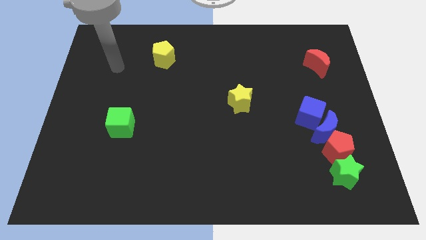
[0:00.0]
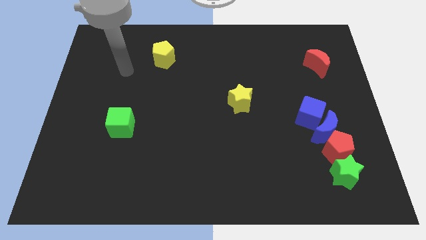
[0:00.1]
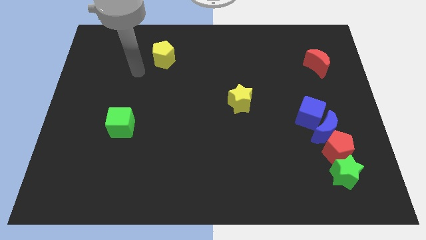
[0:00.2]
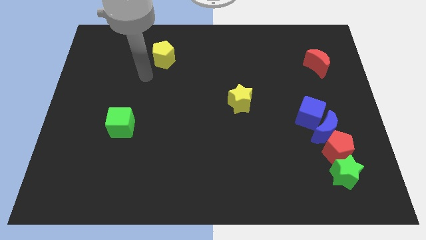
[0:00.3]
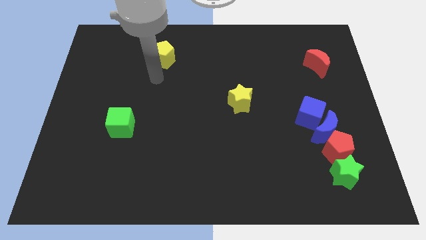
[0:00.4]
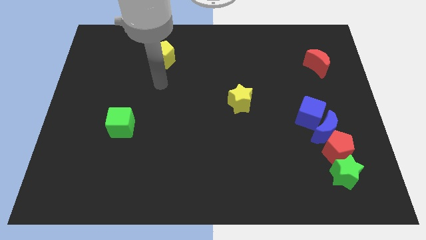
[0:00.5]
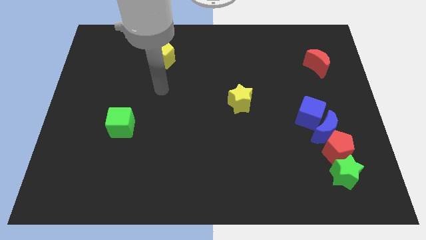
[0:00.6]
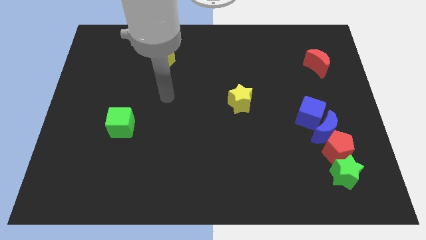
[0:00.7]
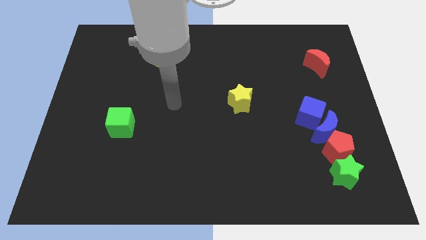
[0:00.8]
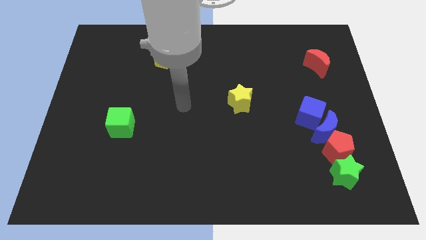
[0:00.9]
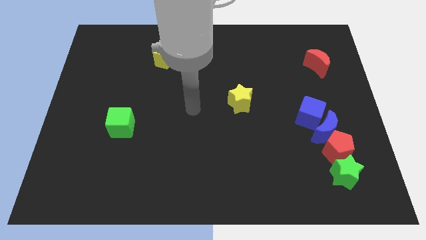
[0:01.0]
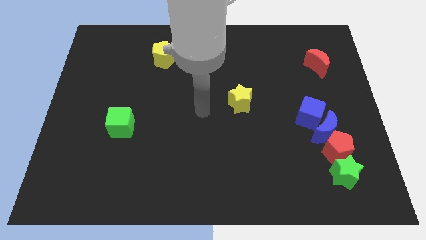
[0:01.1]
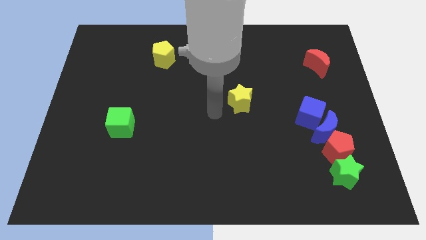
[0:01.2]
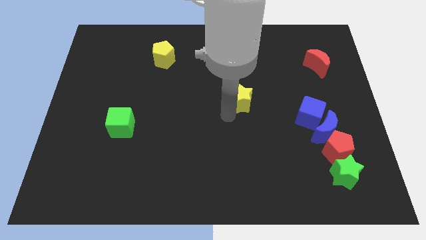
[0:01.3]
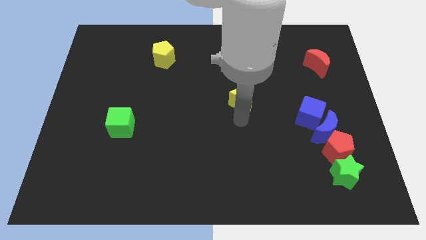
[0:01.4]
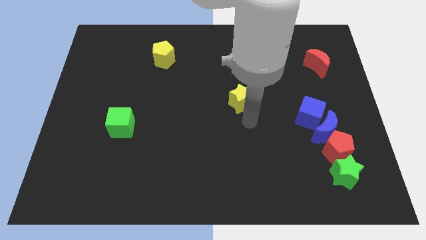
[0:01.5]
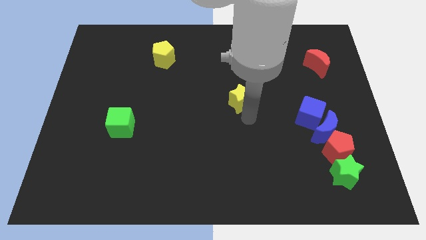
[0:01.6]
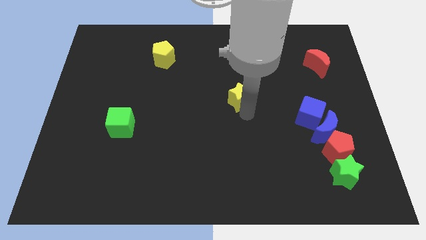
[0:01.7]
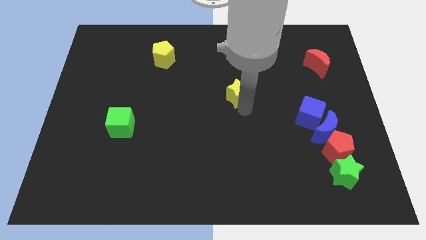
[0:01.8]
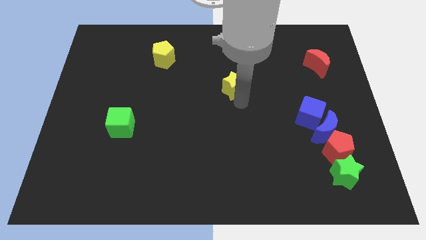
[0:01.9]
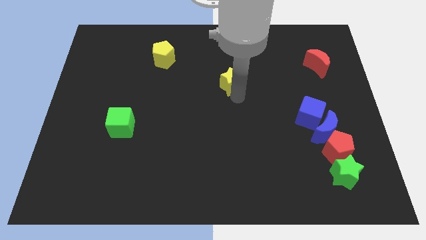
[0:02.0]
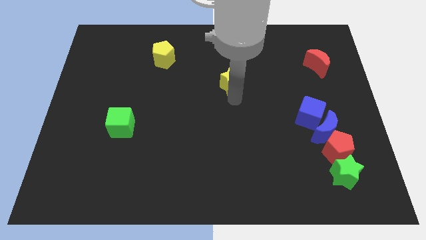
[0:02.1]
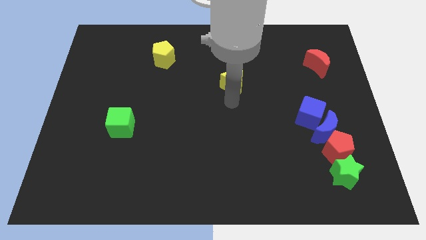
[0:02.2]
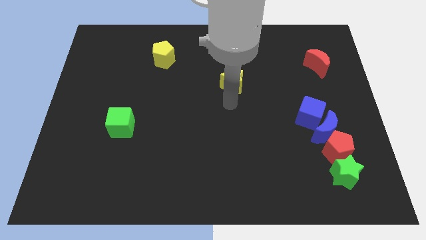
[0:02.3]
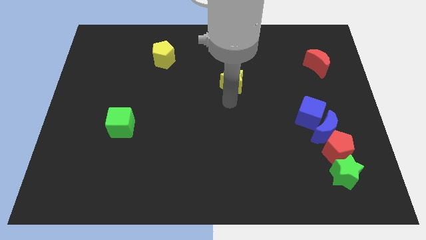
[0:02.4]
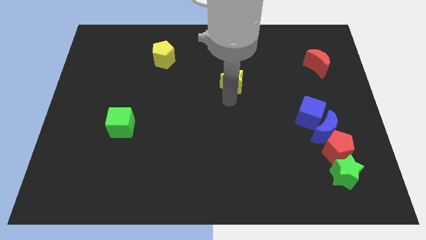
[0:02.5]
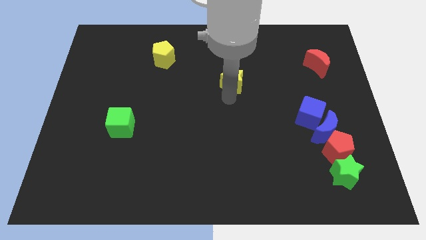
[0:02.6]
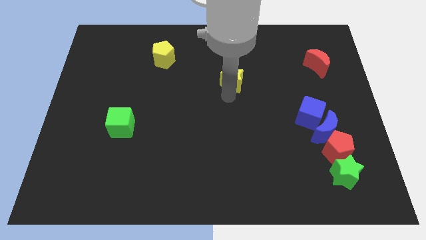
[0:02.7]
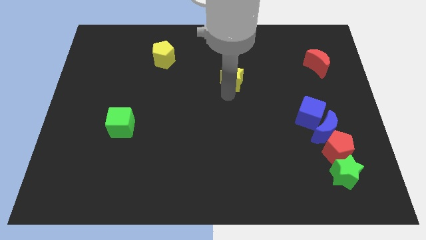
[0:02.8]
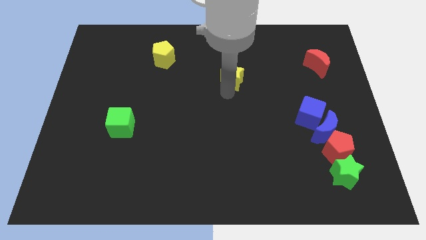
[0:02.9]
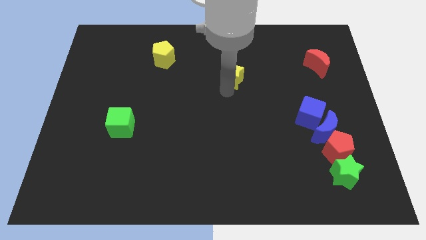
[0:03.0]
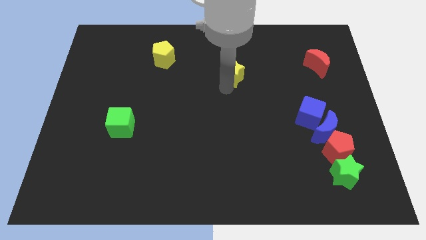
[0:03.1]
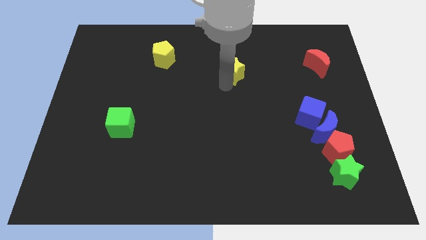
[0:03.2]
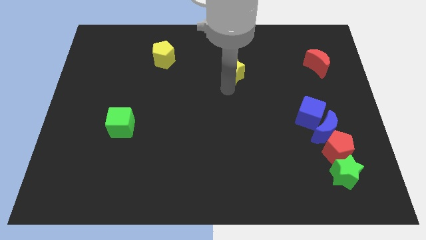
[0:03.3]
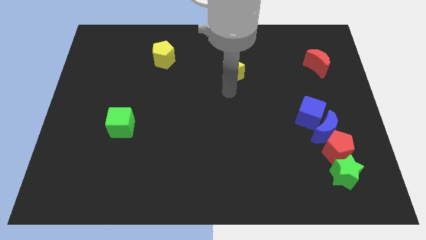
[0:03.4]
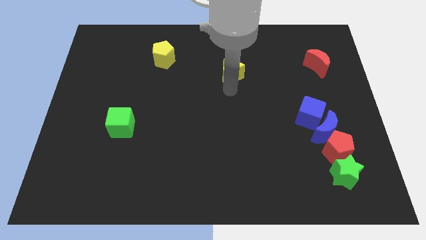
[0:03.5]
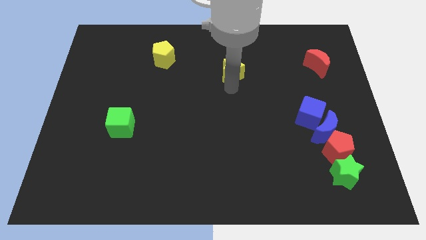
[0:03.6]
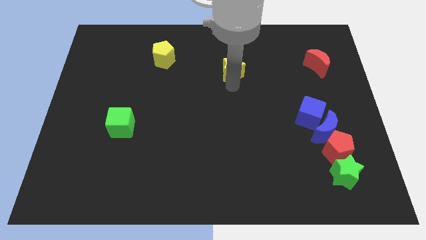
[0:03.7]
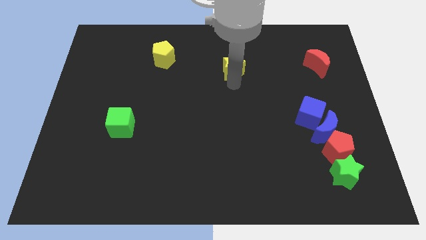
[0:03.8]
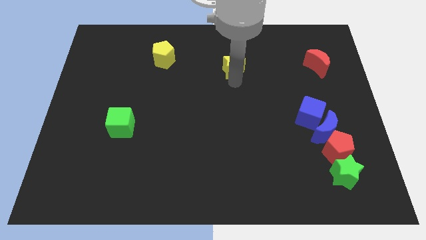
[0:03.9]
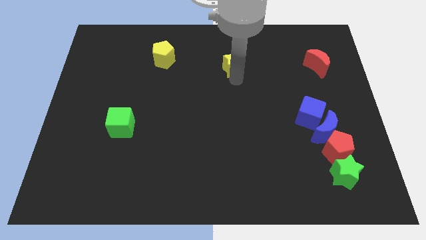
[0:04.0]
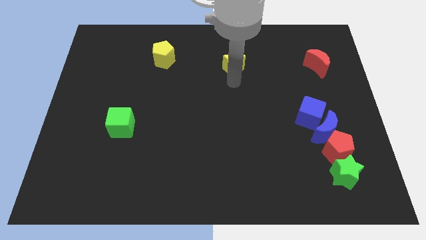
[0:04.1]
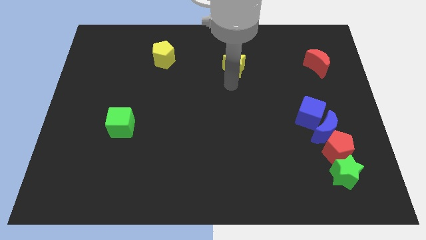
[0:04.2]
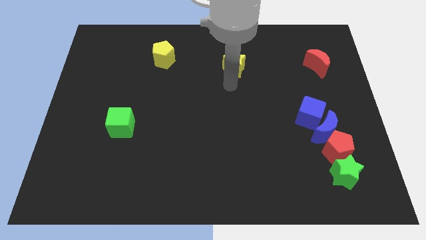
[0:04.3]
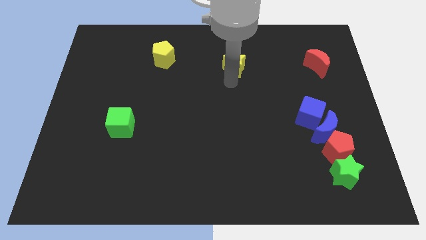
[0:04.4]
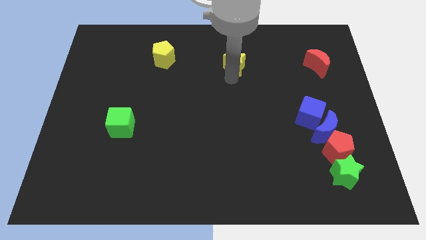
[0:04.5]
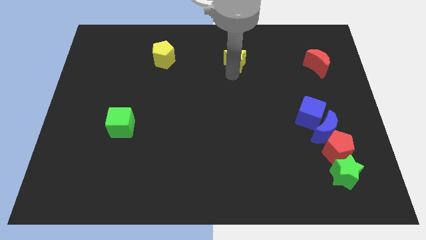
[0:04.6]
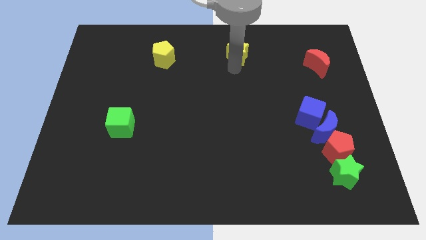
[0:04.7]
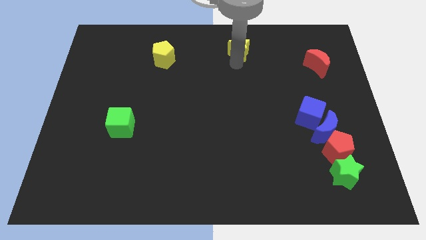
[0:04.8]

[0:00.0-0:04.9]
move the yellow star to the towards your base

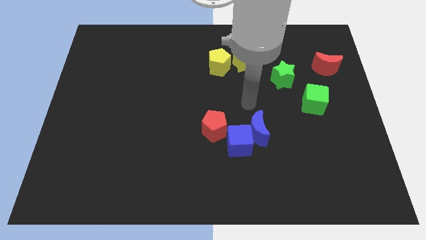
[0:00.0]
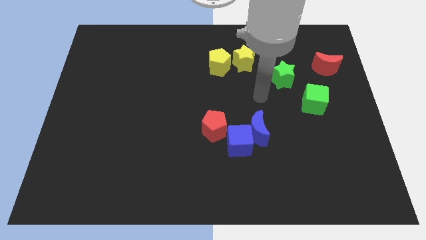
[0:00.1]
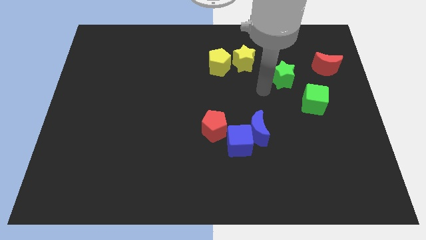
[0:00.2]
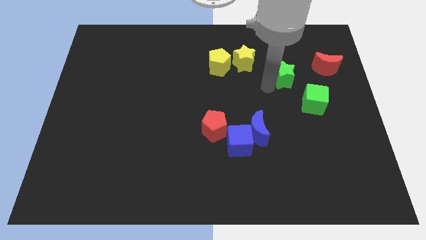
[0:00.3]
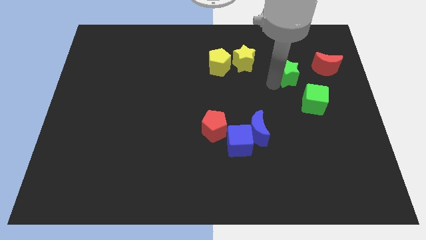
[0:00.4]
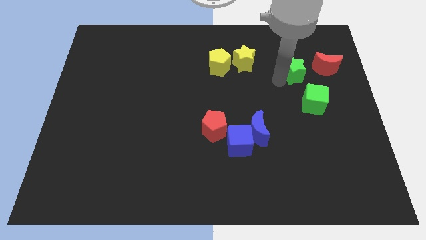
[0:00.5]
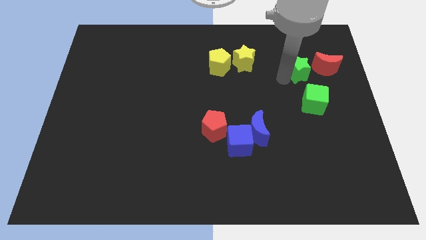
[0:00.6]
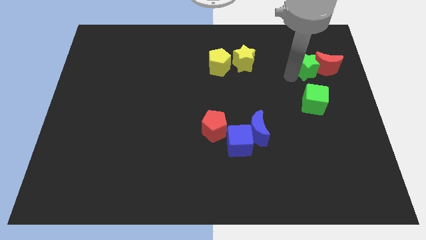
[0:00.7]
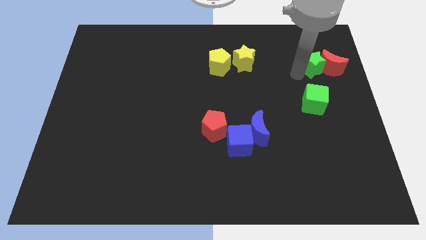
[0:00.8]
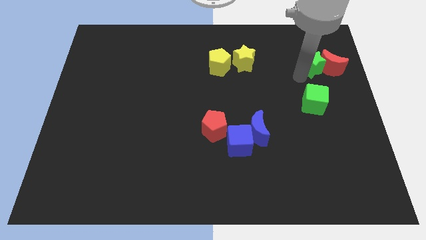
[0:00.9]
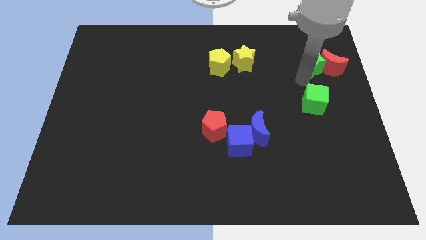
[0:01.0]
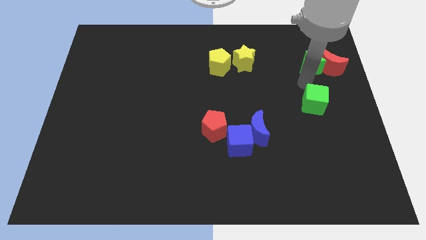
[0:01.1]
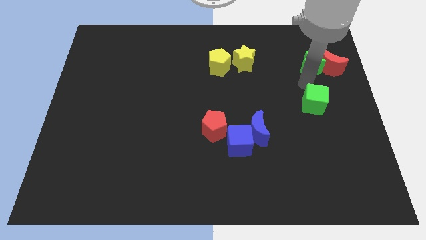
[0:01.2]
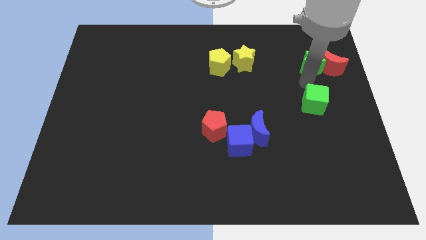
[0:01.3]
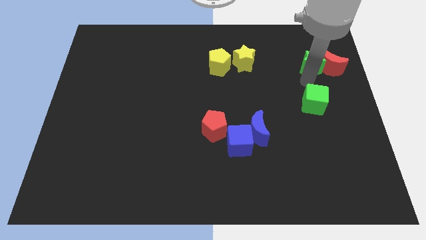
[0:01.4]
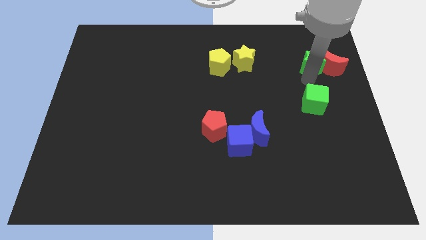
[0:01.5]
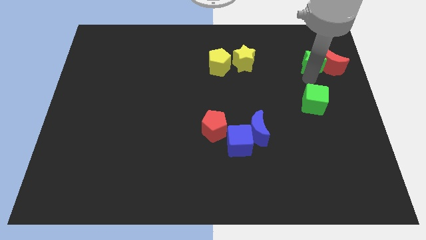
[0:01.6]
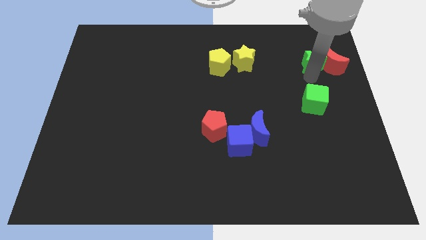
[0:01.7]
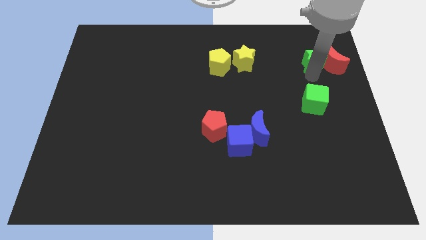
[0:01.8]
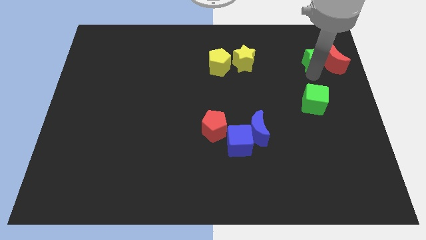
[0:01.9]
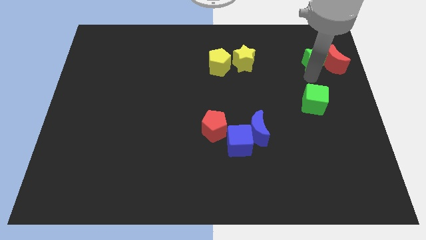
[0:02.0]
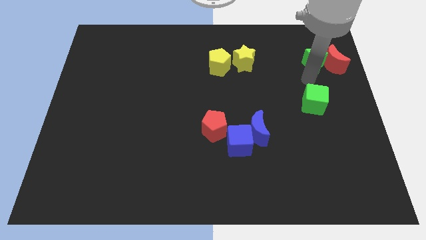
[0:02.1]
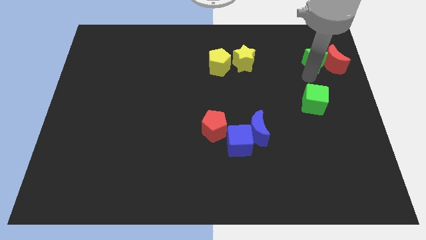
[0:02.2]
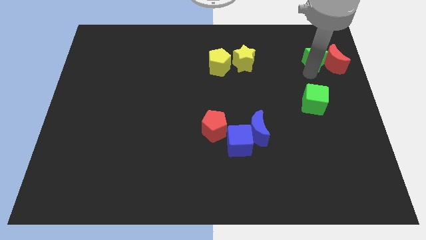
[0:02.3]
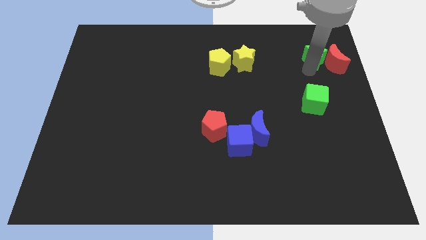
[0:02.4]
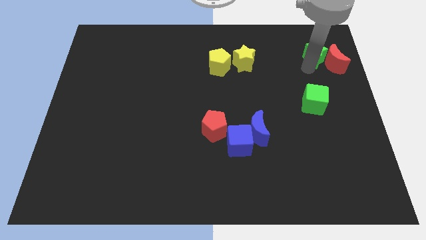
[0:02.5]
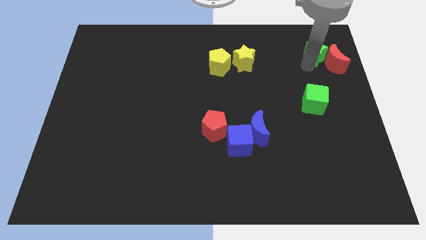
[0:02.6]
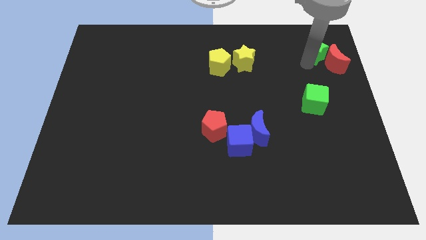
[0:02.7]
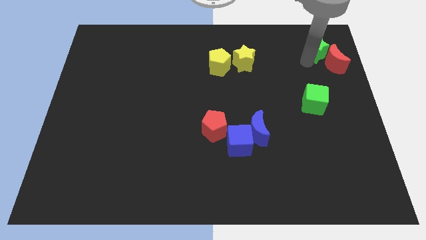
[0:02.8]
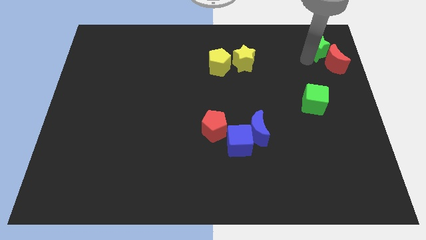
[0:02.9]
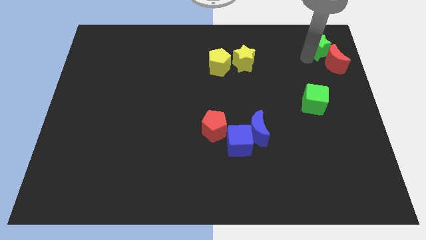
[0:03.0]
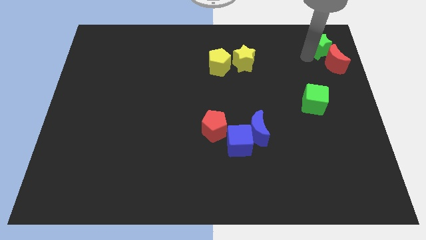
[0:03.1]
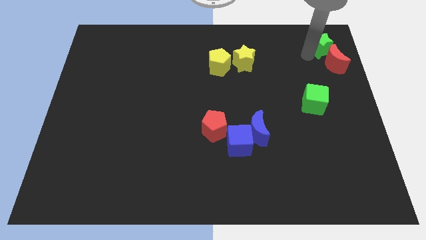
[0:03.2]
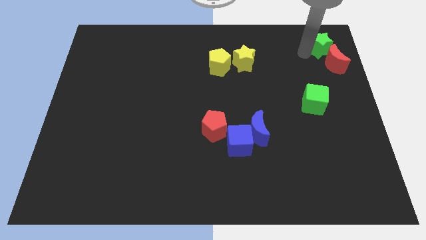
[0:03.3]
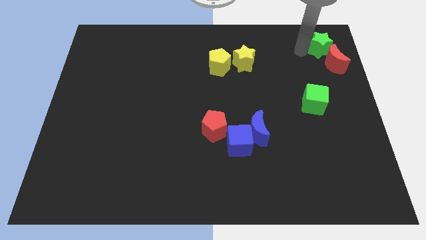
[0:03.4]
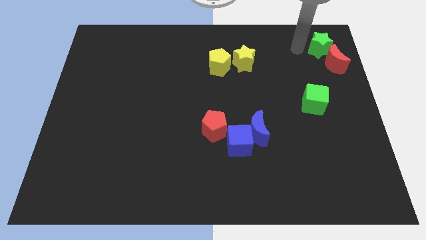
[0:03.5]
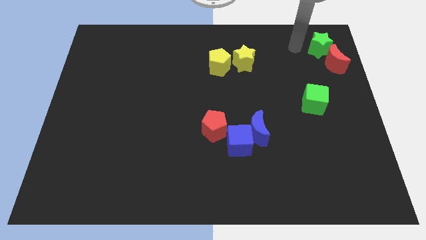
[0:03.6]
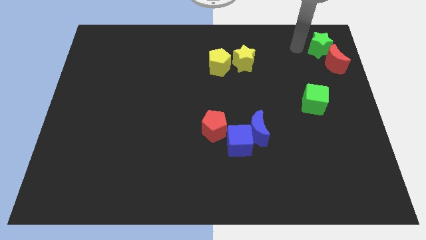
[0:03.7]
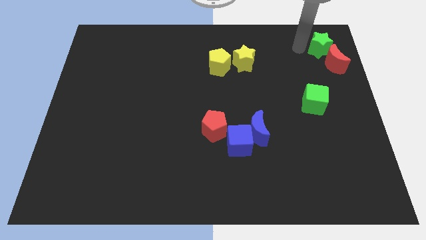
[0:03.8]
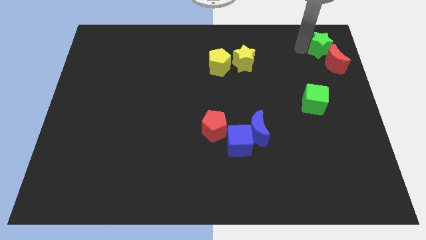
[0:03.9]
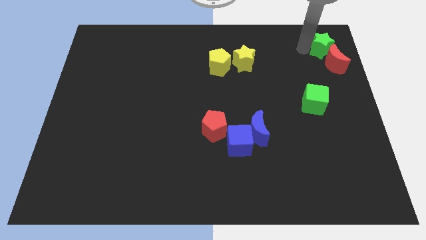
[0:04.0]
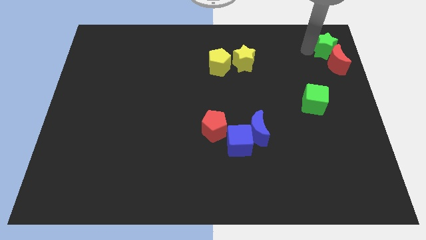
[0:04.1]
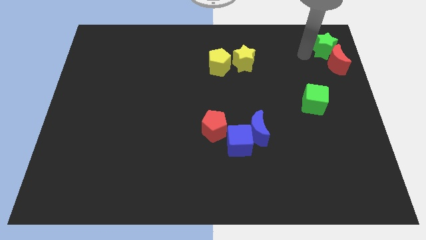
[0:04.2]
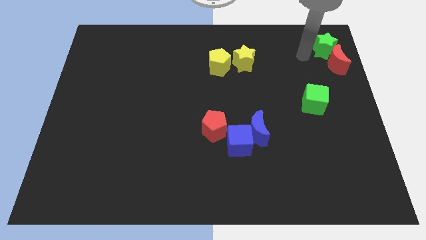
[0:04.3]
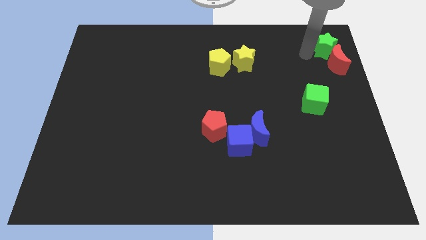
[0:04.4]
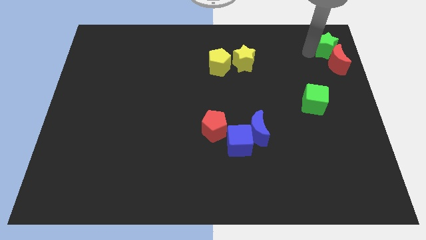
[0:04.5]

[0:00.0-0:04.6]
move the green star to the top right
